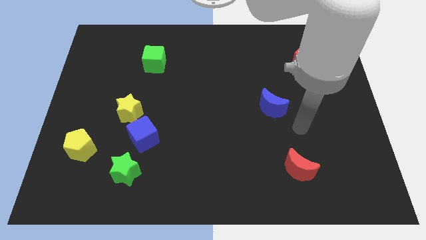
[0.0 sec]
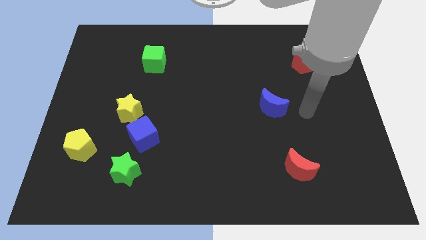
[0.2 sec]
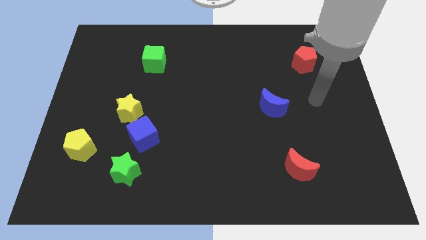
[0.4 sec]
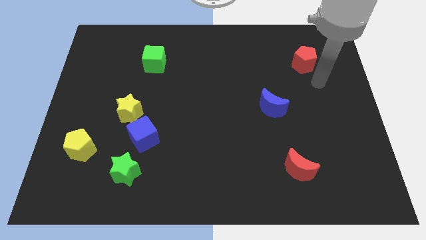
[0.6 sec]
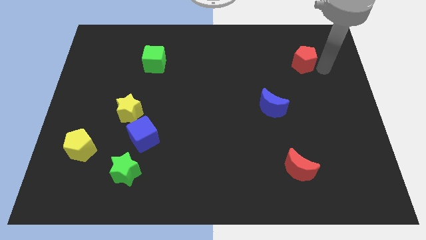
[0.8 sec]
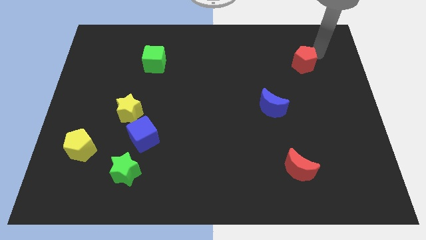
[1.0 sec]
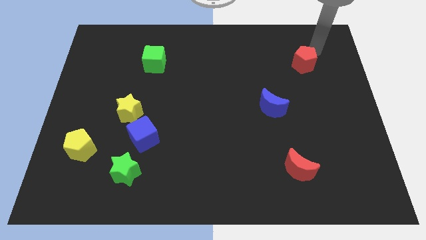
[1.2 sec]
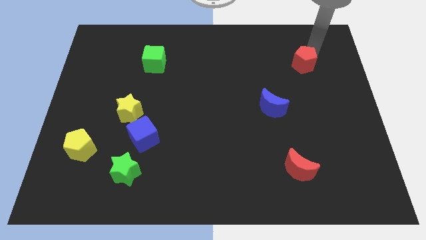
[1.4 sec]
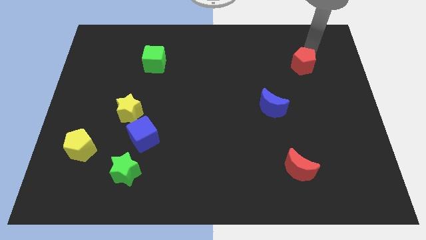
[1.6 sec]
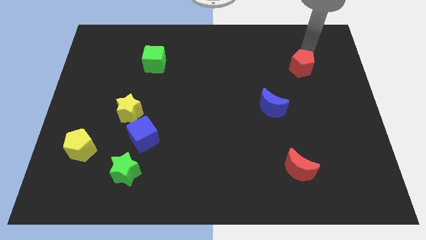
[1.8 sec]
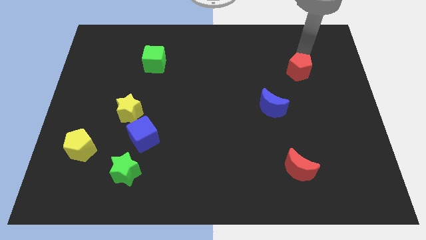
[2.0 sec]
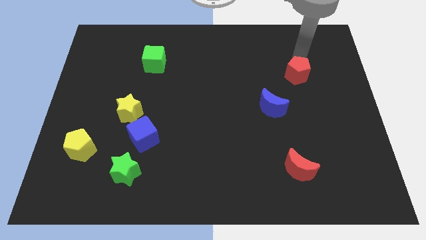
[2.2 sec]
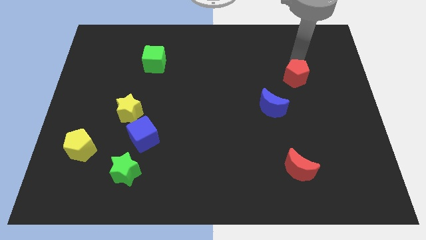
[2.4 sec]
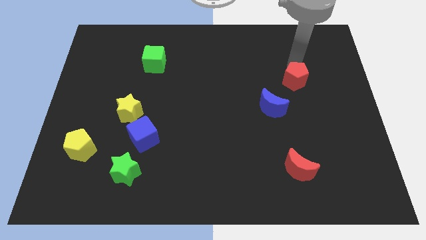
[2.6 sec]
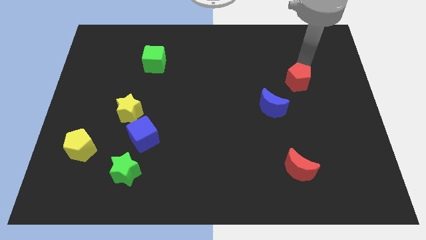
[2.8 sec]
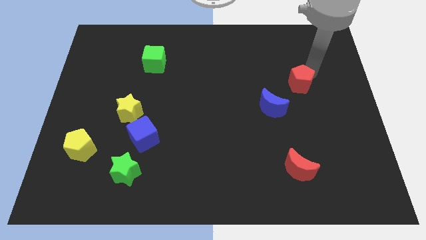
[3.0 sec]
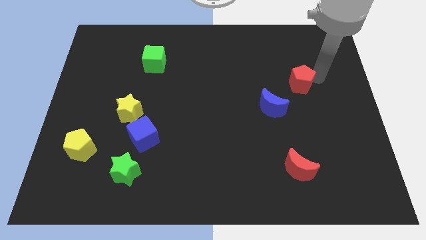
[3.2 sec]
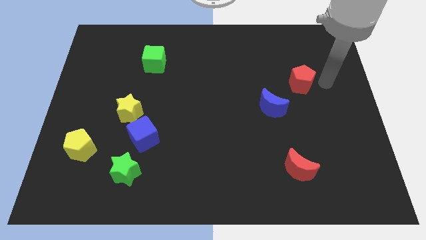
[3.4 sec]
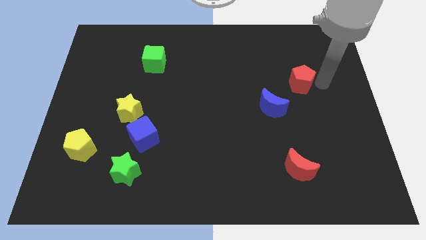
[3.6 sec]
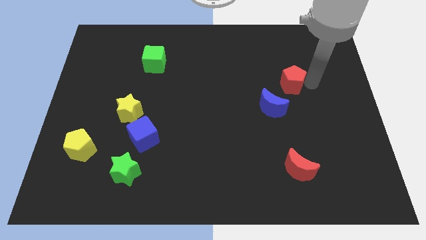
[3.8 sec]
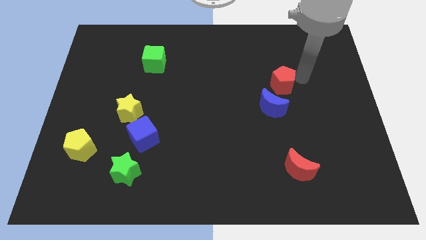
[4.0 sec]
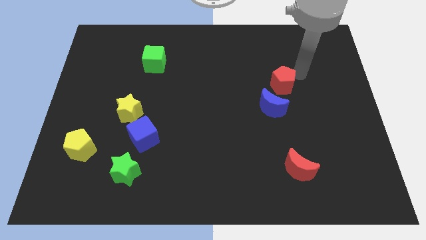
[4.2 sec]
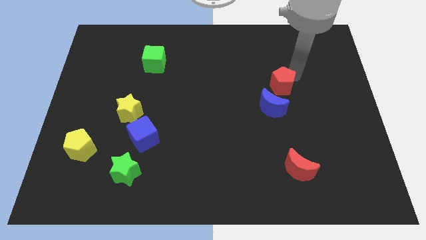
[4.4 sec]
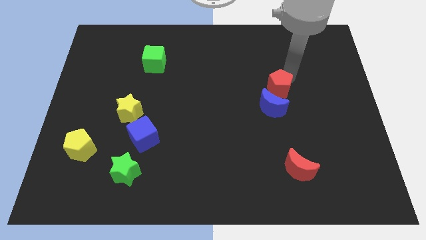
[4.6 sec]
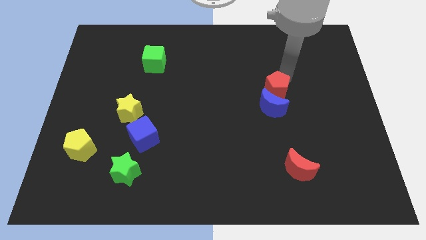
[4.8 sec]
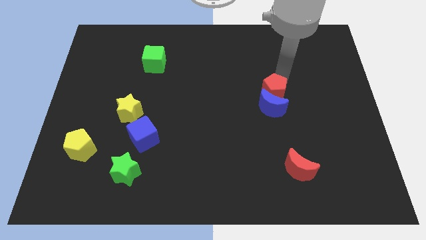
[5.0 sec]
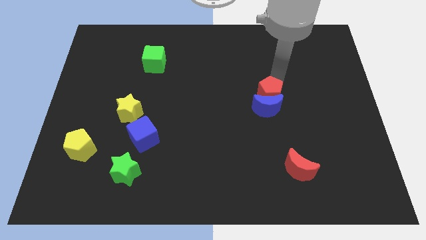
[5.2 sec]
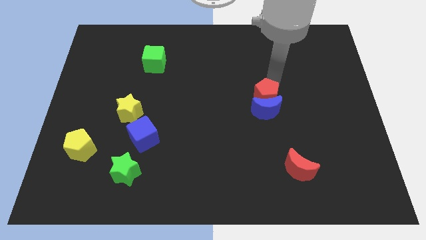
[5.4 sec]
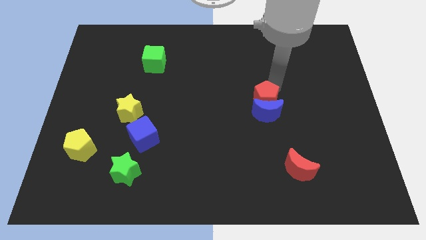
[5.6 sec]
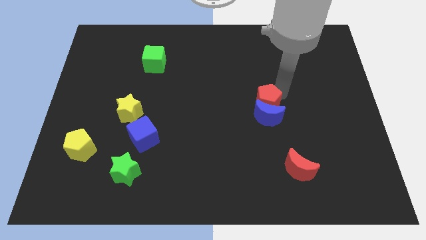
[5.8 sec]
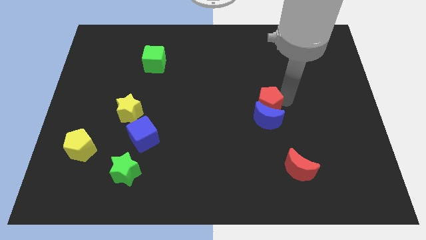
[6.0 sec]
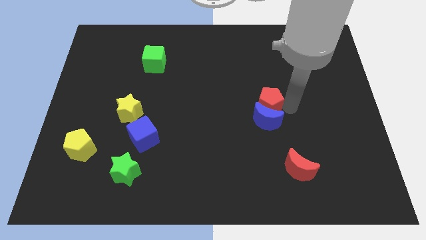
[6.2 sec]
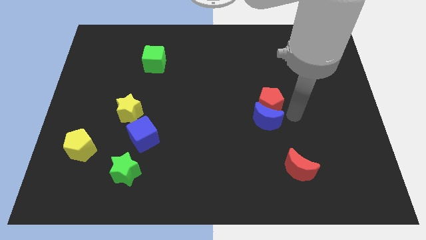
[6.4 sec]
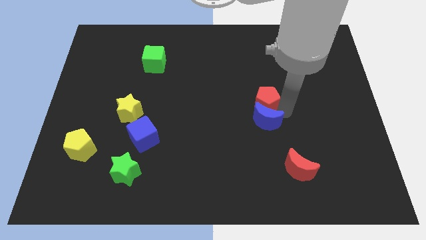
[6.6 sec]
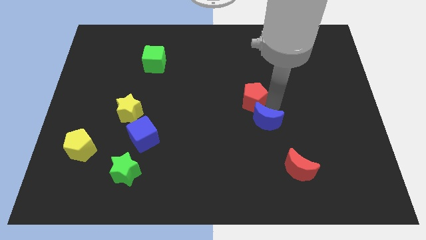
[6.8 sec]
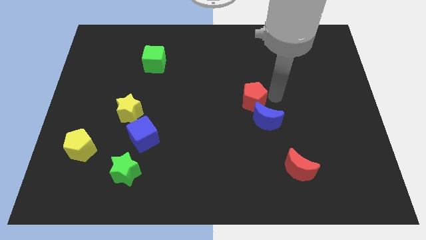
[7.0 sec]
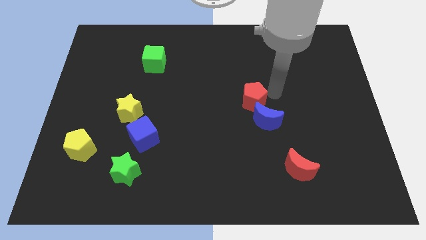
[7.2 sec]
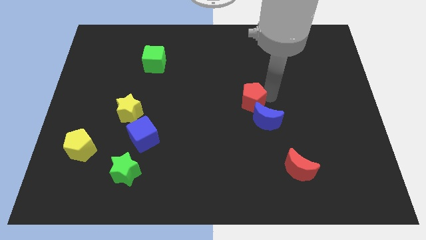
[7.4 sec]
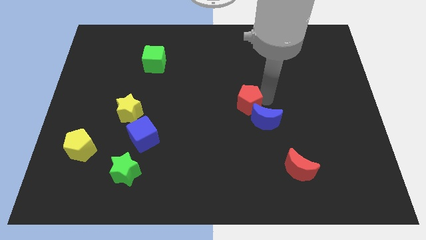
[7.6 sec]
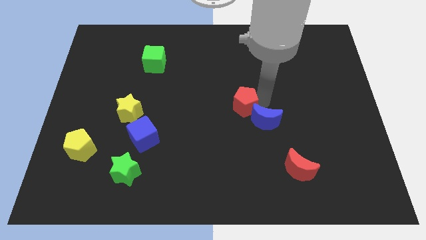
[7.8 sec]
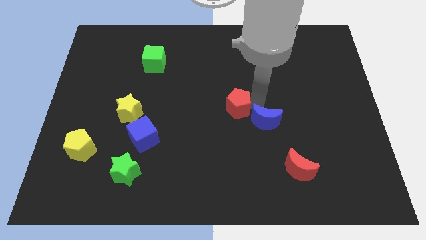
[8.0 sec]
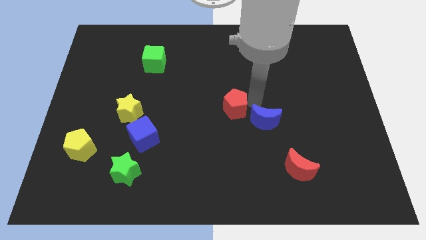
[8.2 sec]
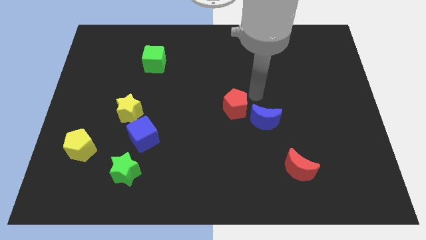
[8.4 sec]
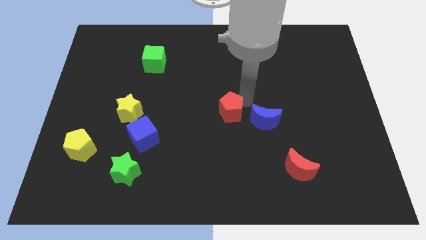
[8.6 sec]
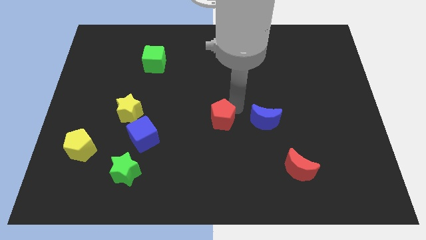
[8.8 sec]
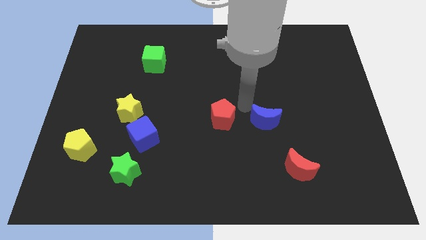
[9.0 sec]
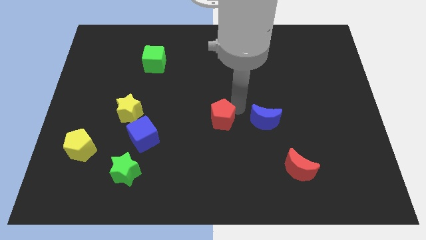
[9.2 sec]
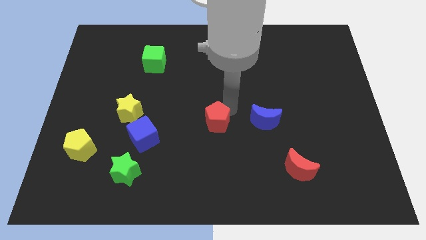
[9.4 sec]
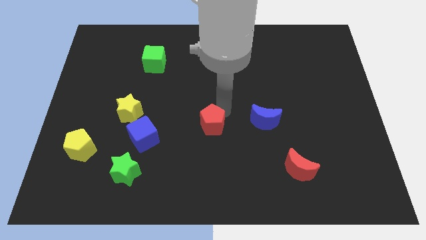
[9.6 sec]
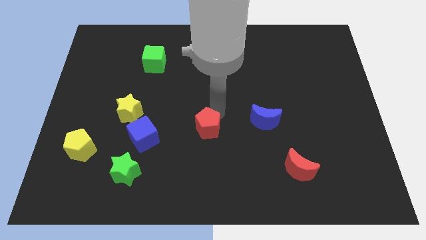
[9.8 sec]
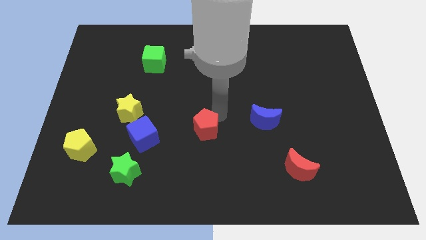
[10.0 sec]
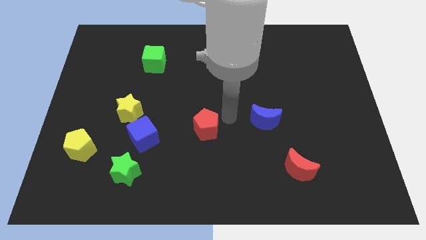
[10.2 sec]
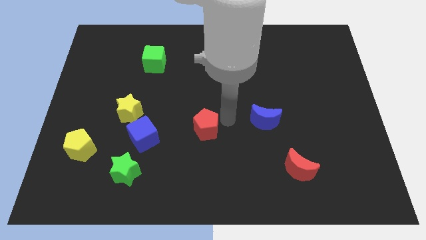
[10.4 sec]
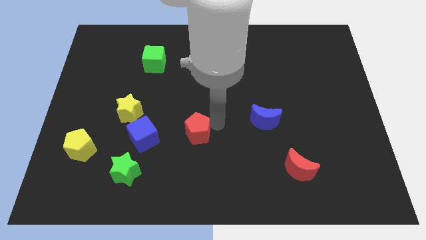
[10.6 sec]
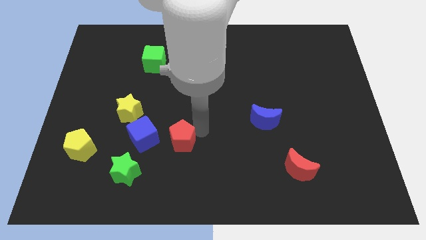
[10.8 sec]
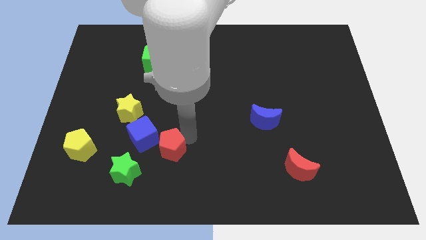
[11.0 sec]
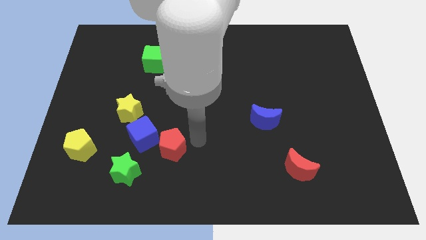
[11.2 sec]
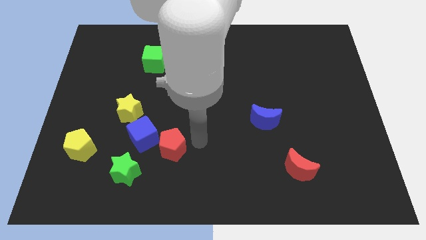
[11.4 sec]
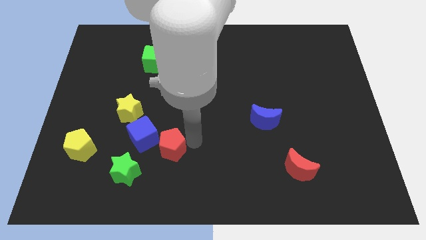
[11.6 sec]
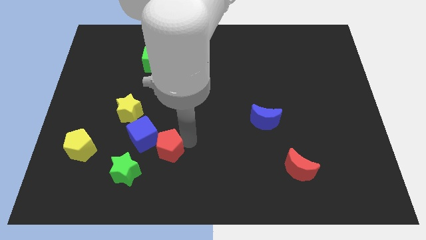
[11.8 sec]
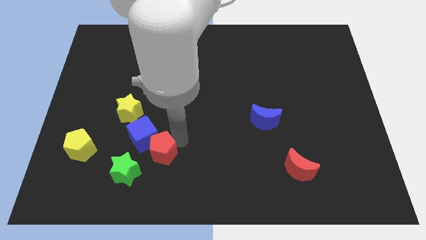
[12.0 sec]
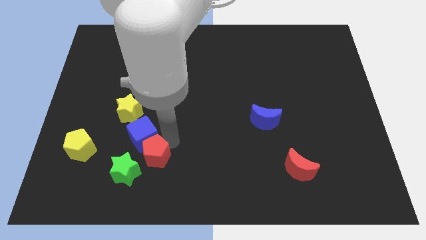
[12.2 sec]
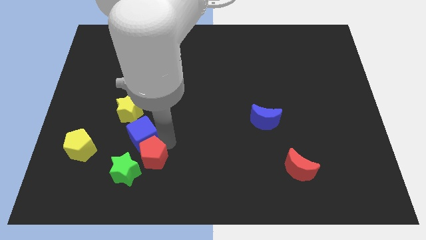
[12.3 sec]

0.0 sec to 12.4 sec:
put the red pentagon close to the green star

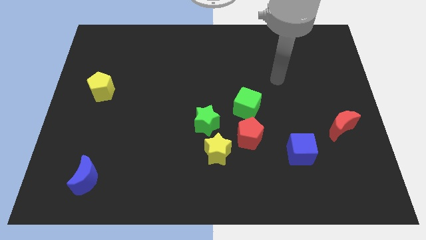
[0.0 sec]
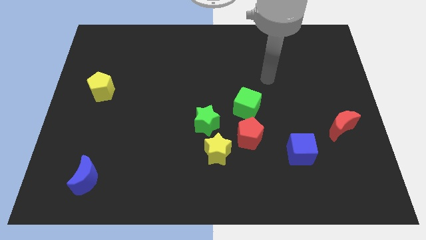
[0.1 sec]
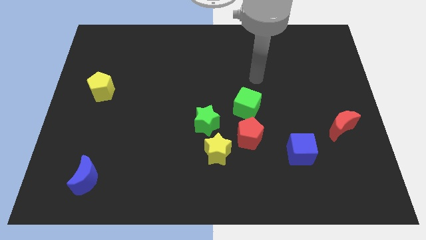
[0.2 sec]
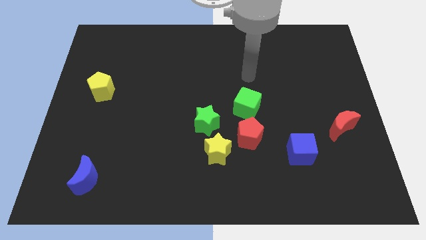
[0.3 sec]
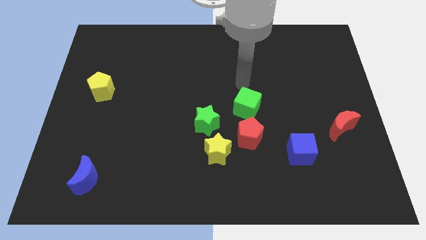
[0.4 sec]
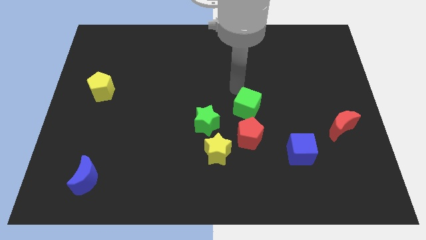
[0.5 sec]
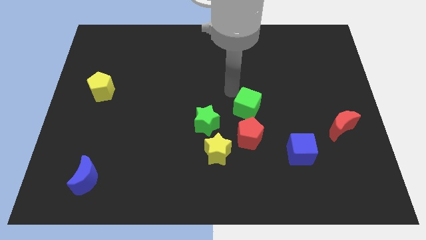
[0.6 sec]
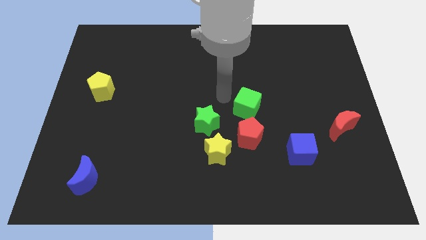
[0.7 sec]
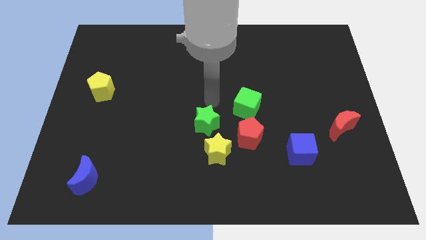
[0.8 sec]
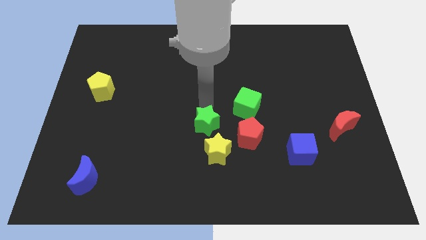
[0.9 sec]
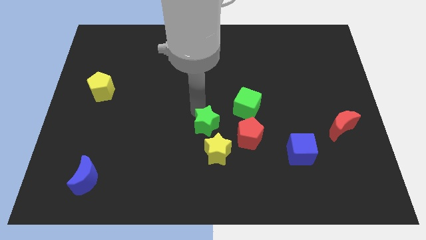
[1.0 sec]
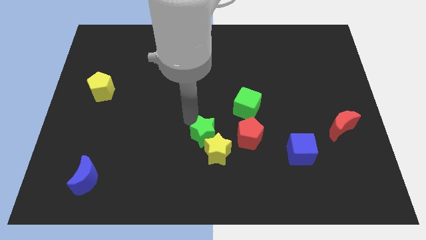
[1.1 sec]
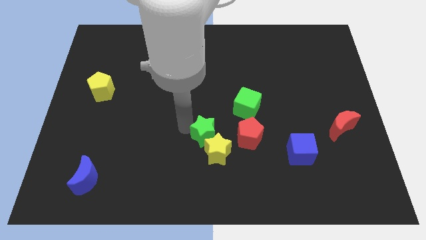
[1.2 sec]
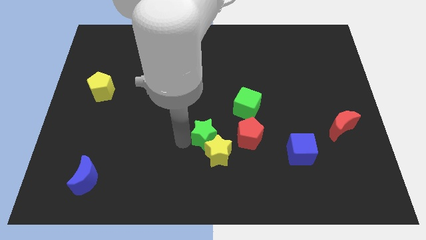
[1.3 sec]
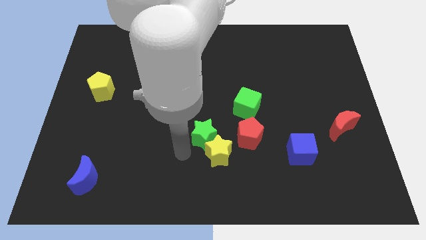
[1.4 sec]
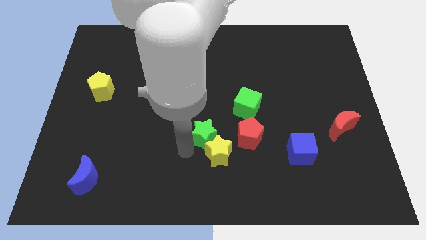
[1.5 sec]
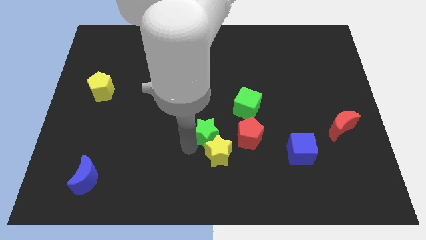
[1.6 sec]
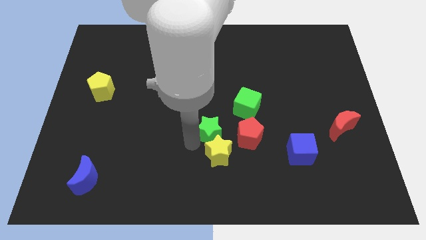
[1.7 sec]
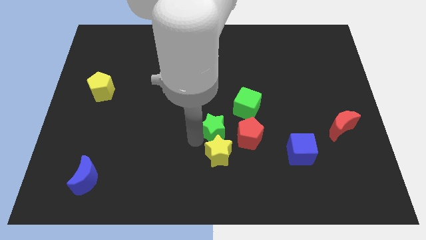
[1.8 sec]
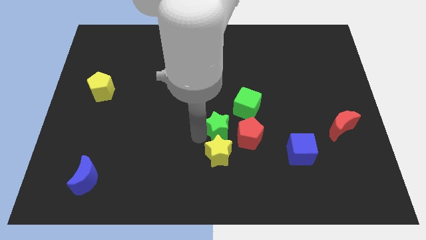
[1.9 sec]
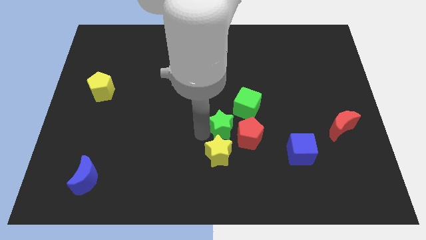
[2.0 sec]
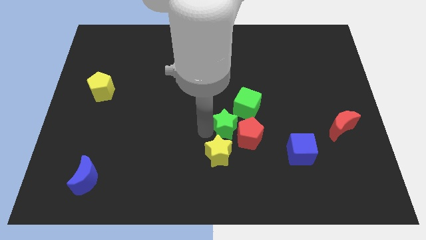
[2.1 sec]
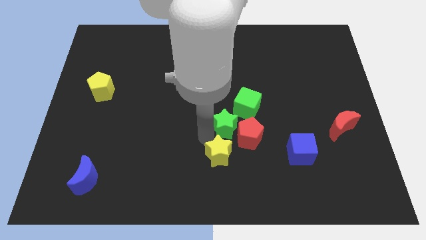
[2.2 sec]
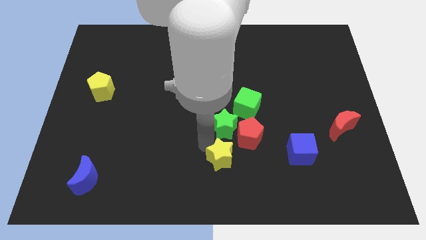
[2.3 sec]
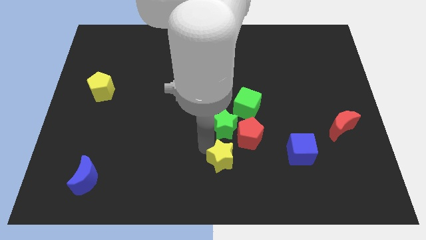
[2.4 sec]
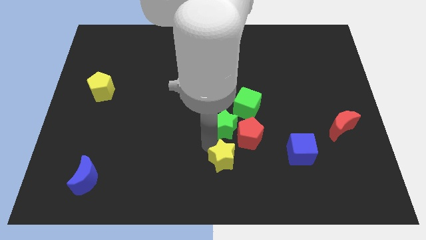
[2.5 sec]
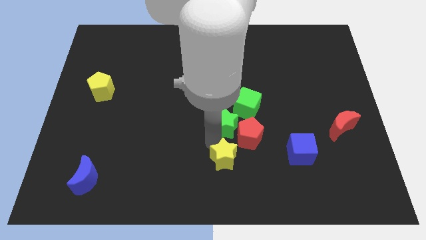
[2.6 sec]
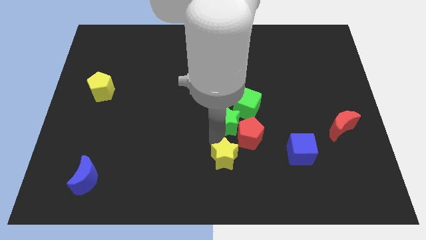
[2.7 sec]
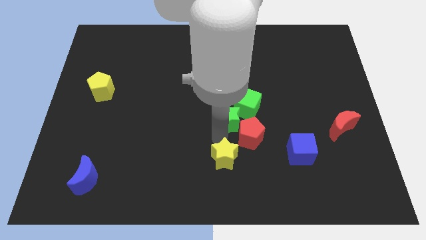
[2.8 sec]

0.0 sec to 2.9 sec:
move the green star next to the green cube
